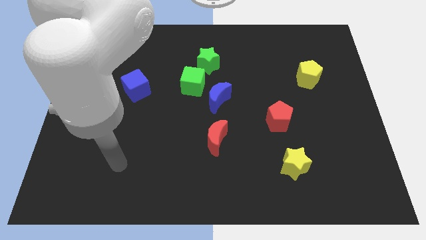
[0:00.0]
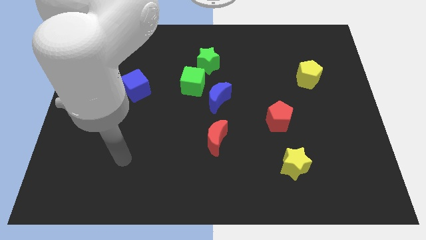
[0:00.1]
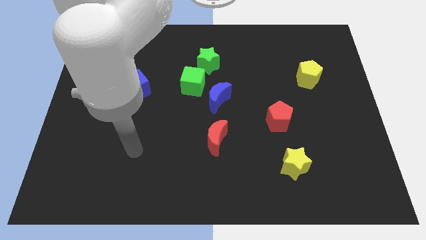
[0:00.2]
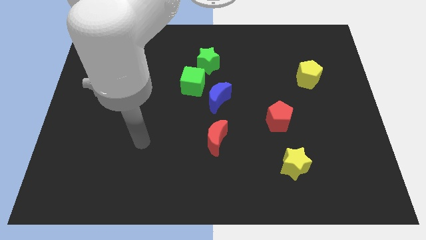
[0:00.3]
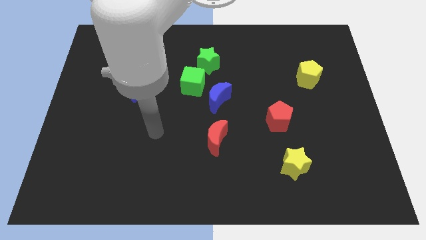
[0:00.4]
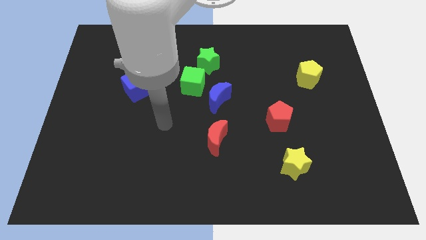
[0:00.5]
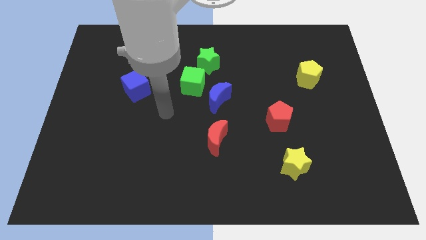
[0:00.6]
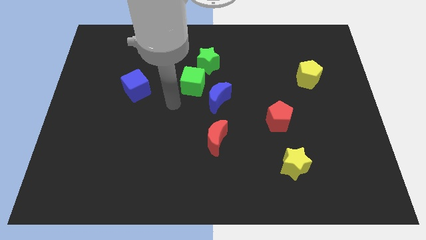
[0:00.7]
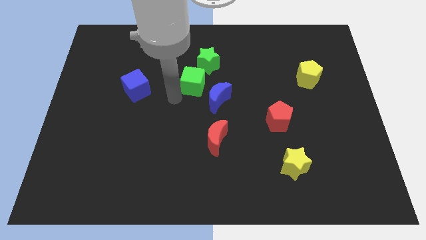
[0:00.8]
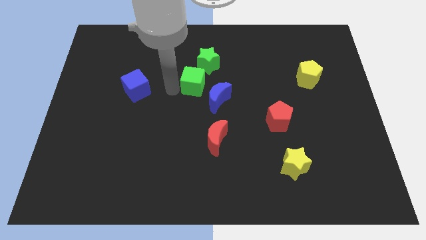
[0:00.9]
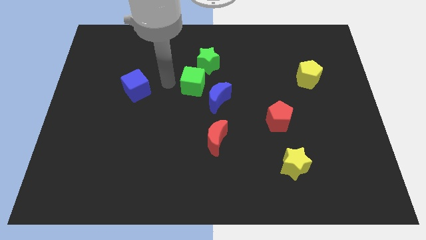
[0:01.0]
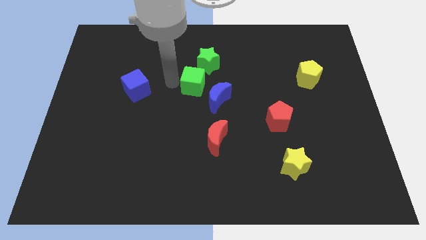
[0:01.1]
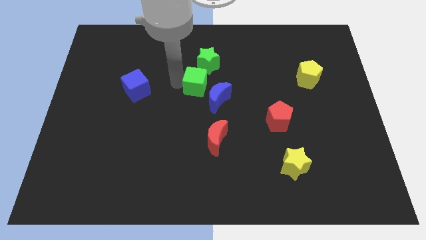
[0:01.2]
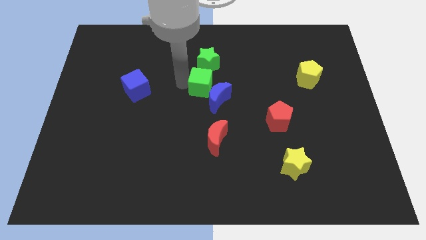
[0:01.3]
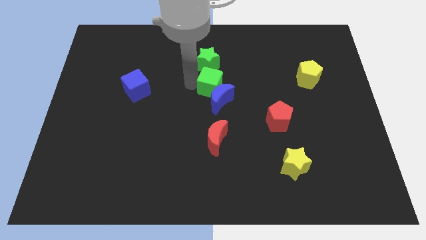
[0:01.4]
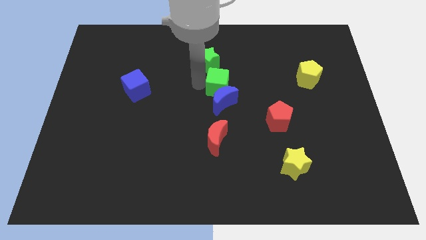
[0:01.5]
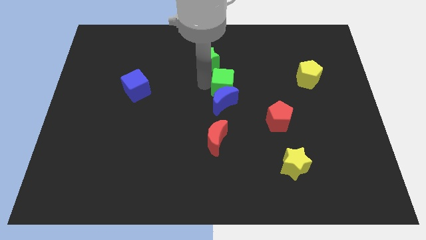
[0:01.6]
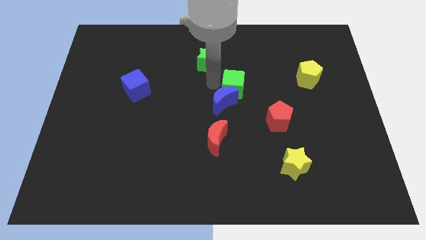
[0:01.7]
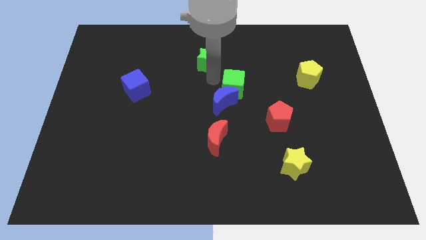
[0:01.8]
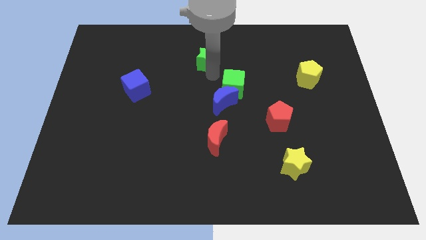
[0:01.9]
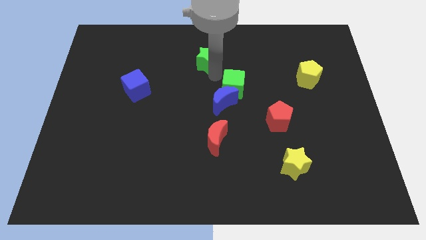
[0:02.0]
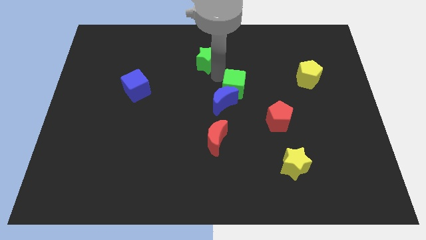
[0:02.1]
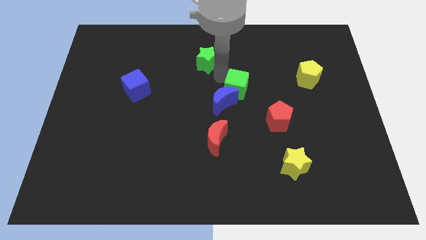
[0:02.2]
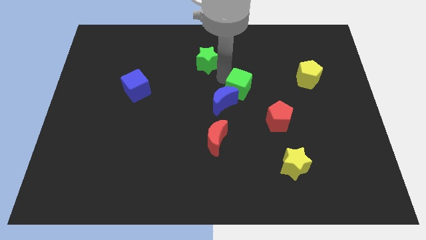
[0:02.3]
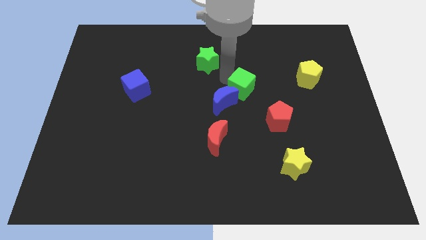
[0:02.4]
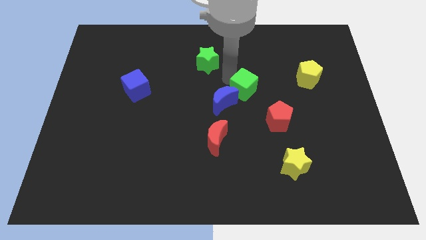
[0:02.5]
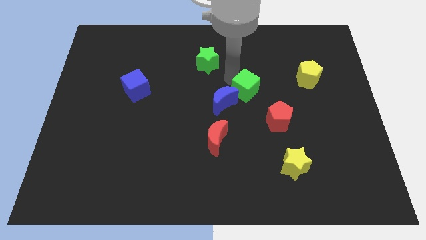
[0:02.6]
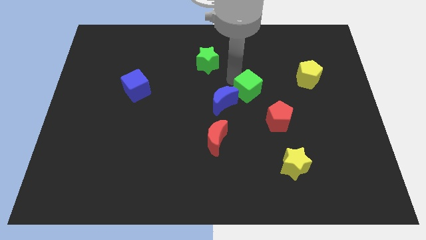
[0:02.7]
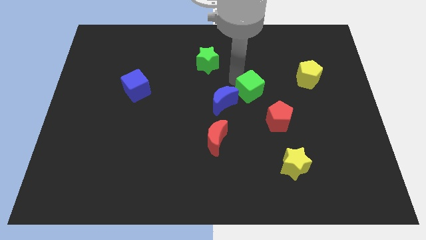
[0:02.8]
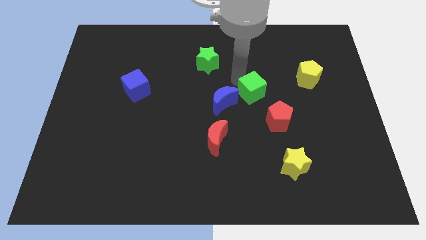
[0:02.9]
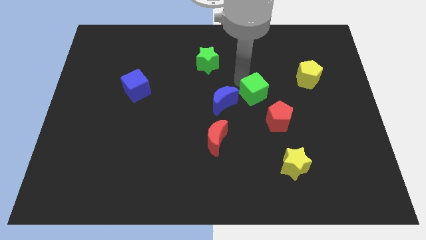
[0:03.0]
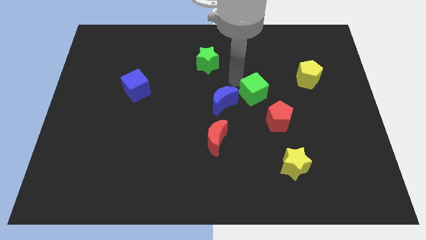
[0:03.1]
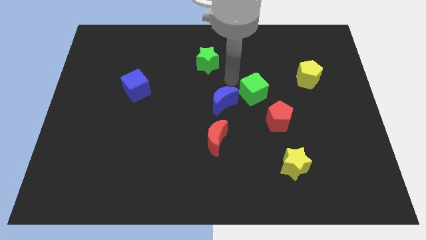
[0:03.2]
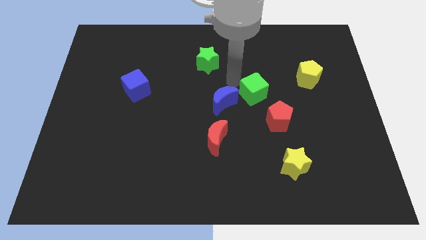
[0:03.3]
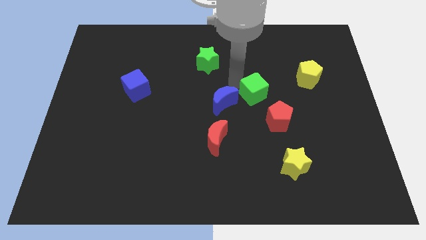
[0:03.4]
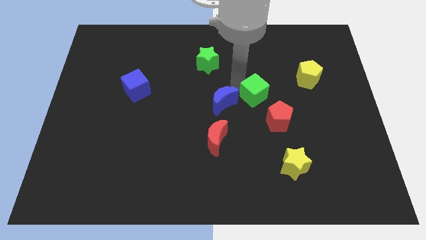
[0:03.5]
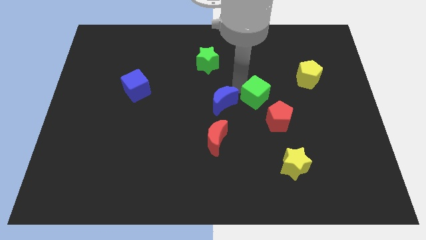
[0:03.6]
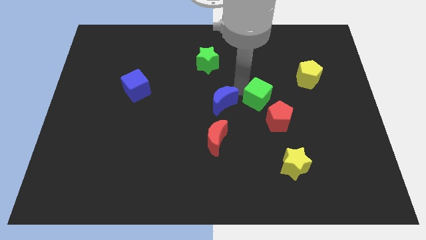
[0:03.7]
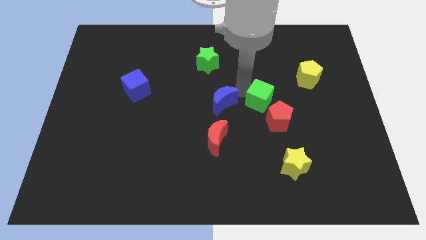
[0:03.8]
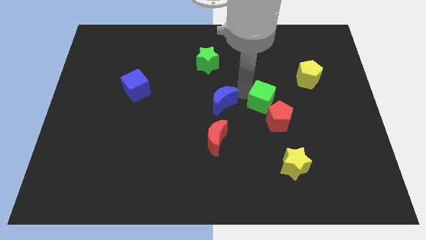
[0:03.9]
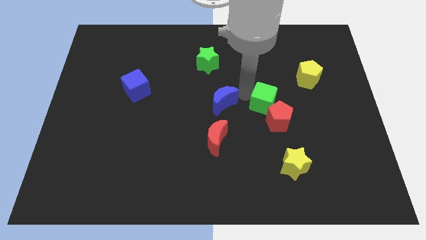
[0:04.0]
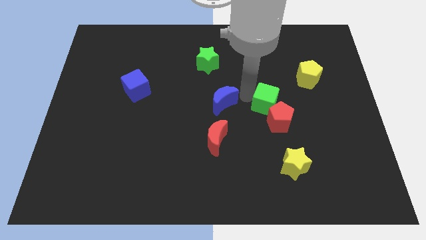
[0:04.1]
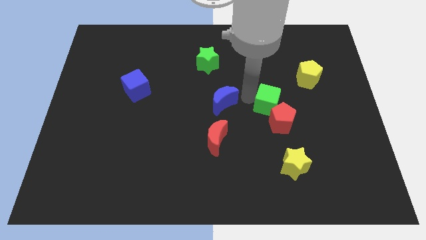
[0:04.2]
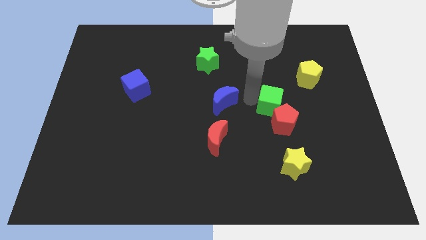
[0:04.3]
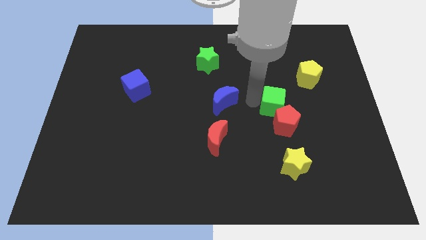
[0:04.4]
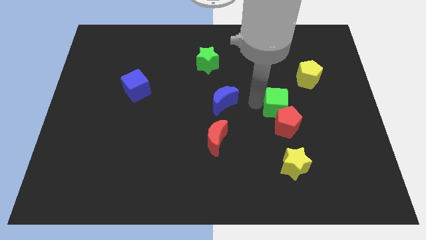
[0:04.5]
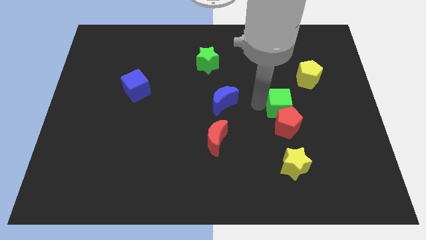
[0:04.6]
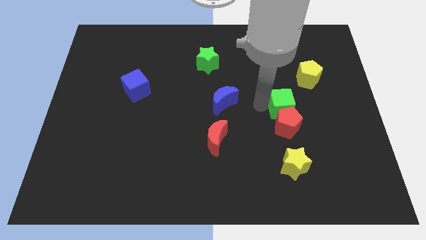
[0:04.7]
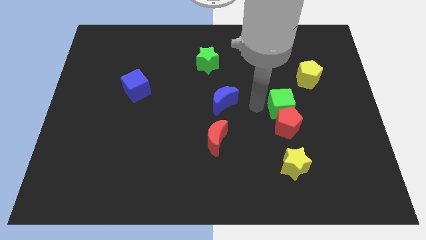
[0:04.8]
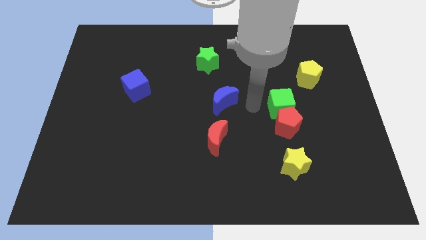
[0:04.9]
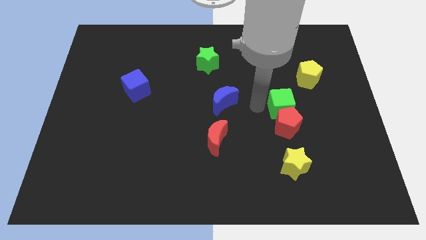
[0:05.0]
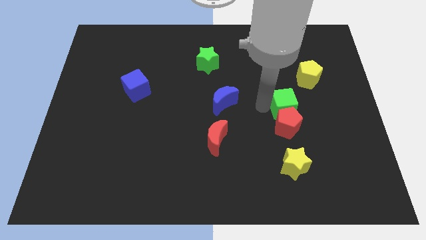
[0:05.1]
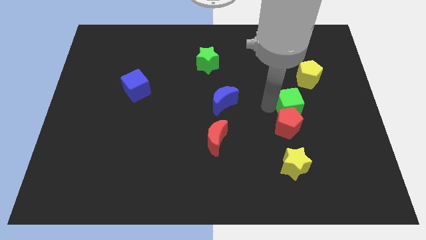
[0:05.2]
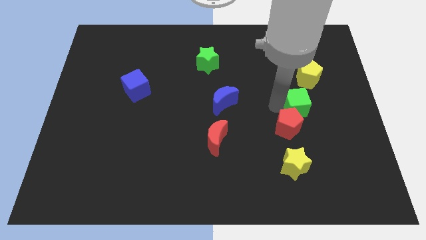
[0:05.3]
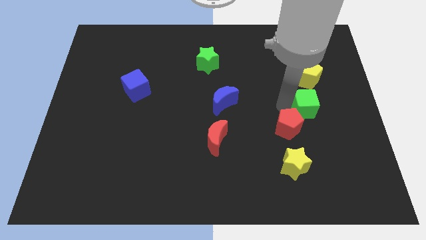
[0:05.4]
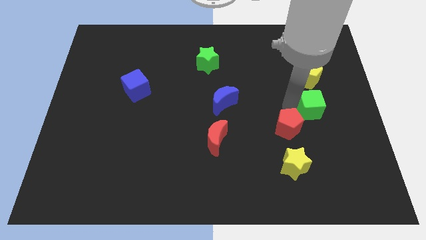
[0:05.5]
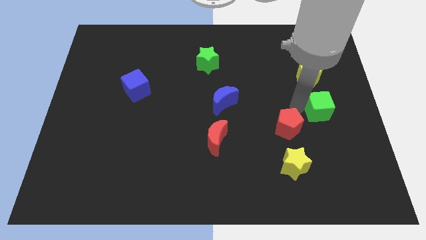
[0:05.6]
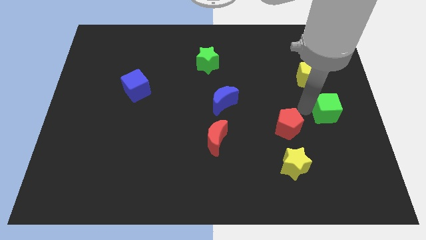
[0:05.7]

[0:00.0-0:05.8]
slide the green cube to the center right

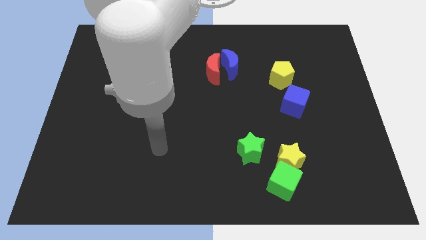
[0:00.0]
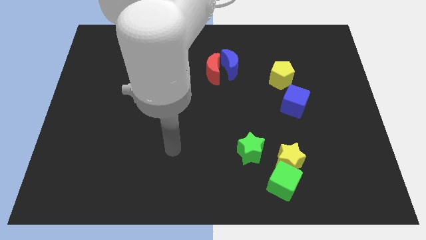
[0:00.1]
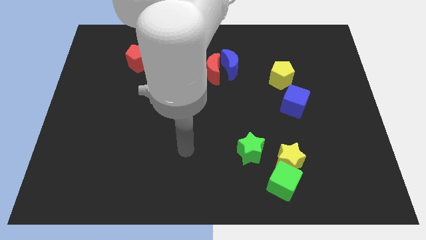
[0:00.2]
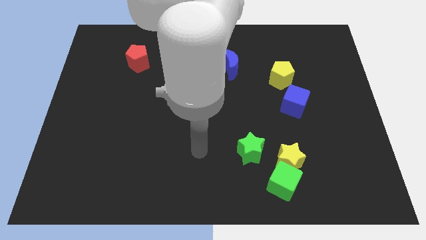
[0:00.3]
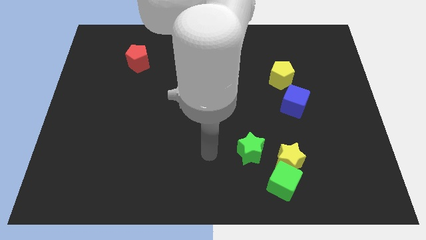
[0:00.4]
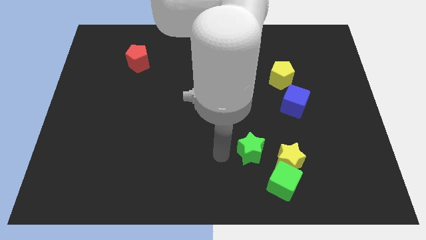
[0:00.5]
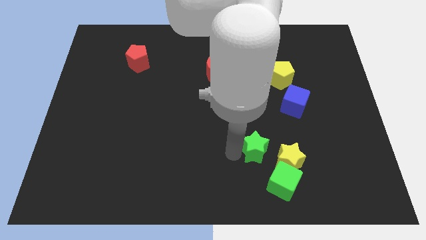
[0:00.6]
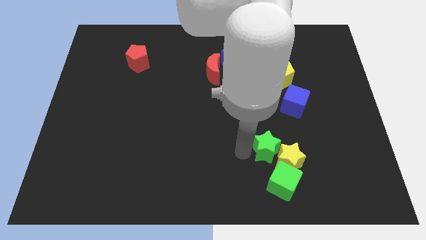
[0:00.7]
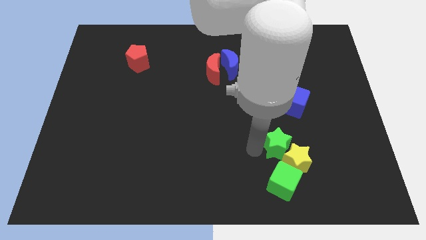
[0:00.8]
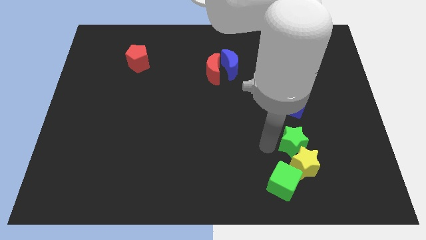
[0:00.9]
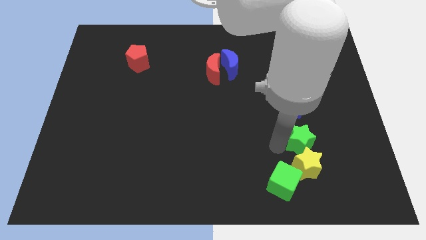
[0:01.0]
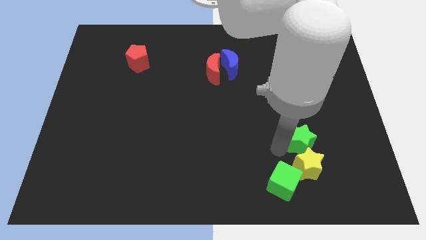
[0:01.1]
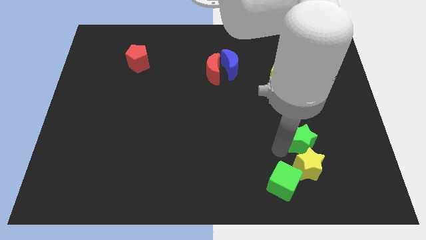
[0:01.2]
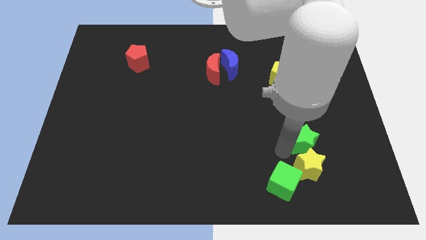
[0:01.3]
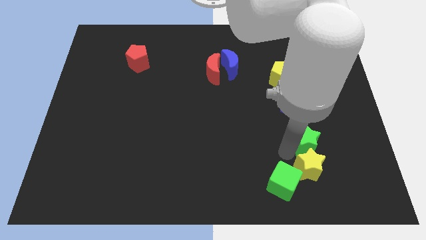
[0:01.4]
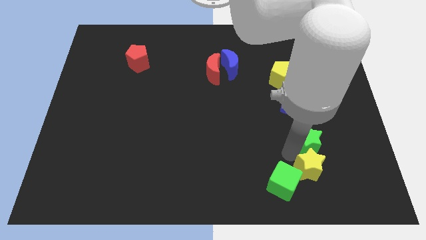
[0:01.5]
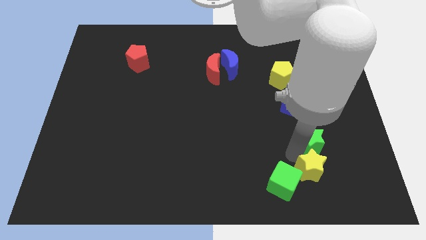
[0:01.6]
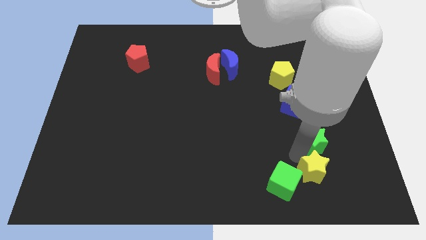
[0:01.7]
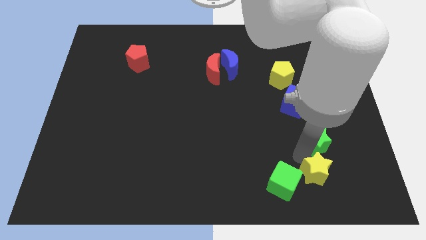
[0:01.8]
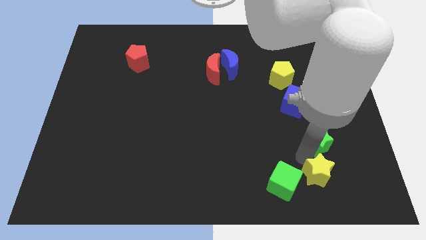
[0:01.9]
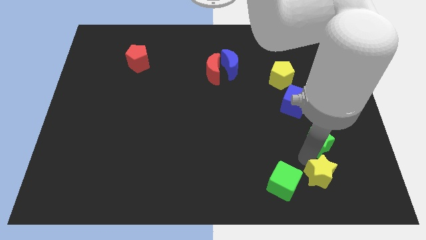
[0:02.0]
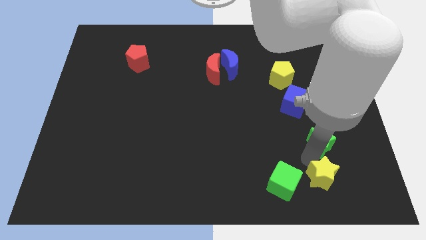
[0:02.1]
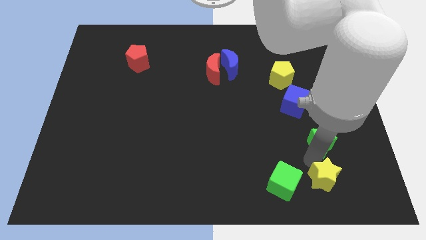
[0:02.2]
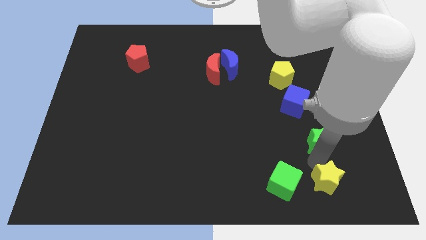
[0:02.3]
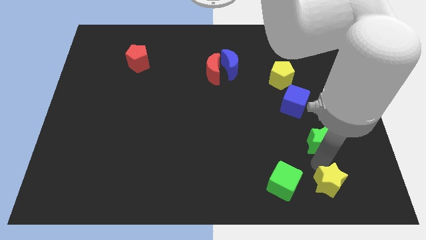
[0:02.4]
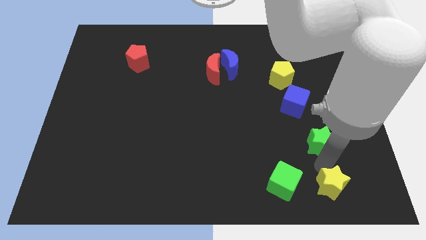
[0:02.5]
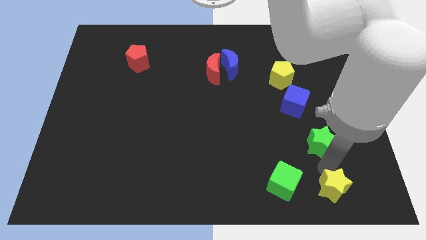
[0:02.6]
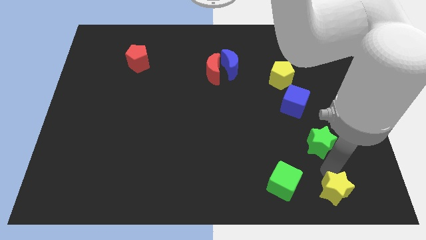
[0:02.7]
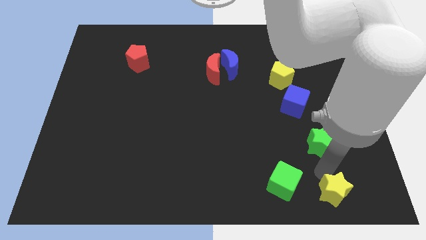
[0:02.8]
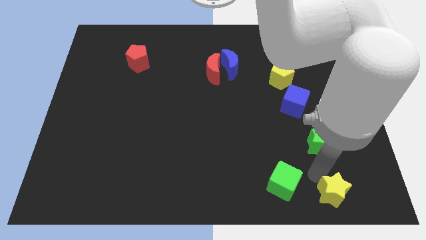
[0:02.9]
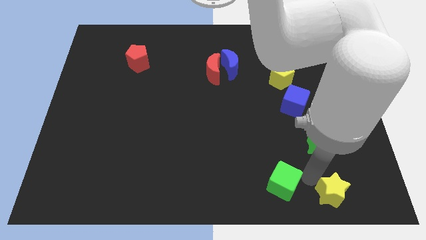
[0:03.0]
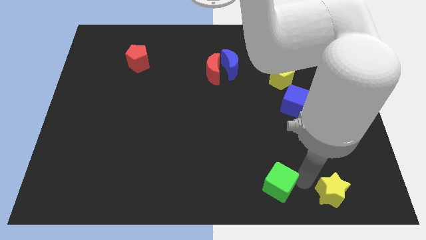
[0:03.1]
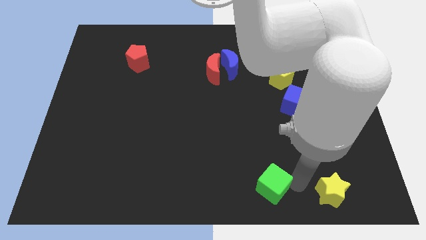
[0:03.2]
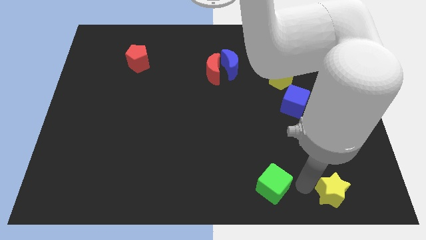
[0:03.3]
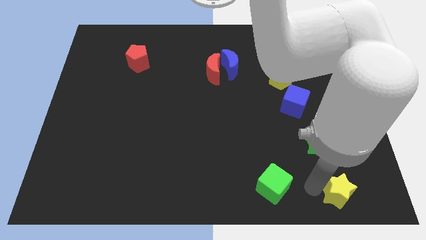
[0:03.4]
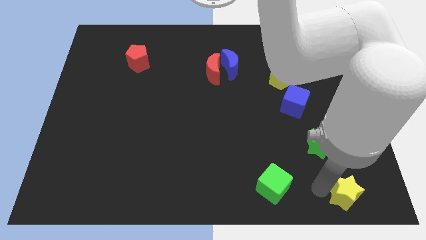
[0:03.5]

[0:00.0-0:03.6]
move the yellow star to the lower right corner
